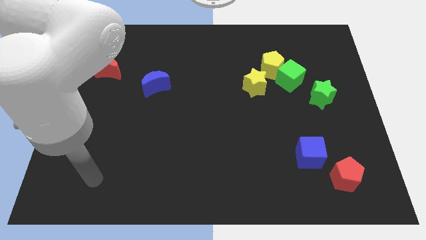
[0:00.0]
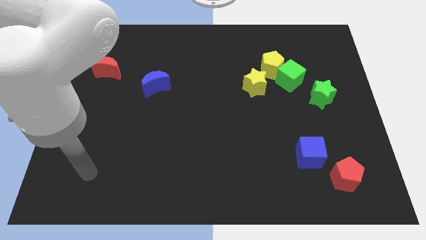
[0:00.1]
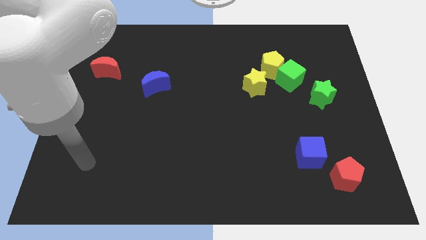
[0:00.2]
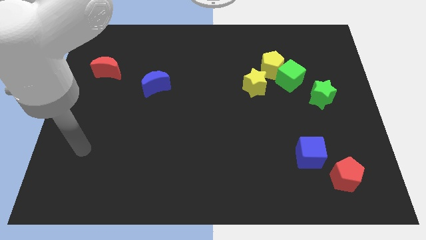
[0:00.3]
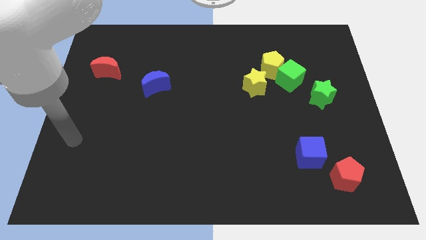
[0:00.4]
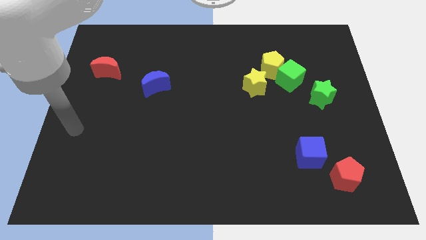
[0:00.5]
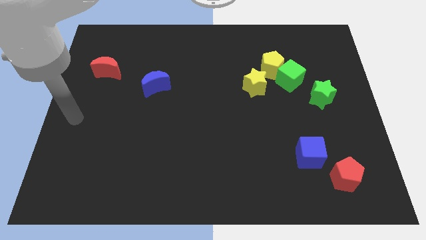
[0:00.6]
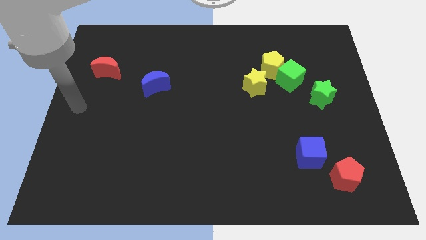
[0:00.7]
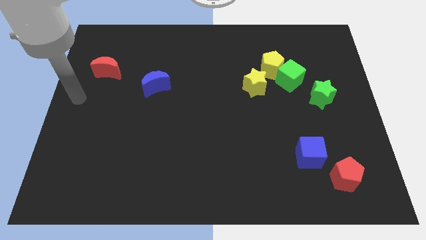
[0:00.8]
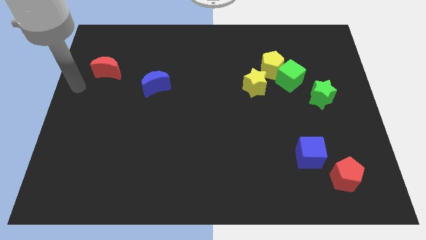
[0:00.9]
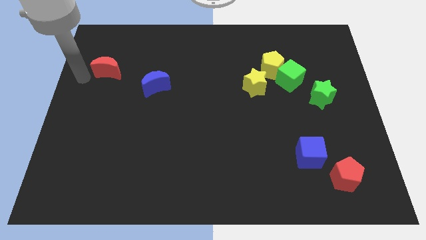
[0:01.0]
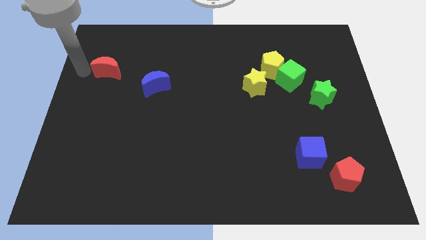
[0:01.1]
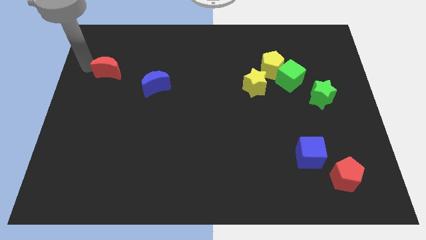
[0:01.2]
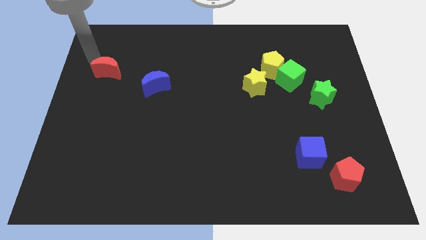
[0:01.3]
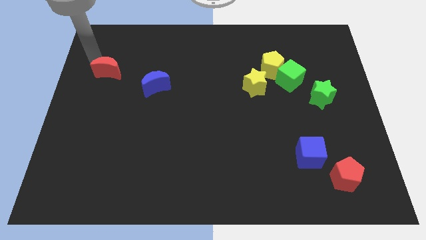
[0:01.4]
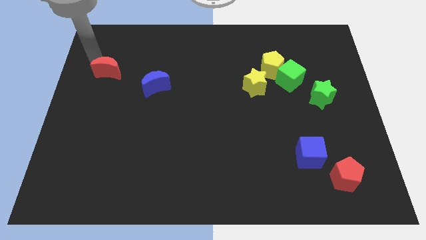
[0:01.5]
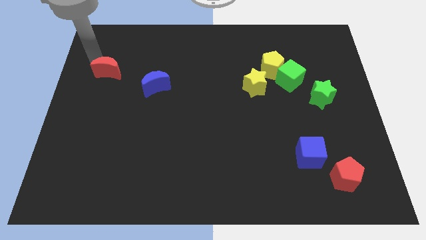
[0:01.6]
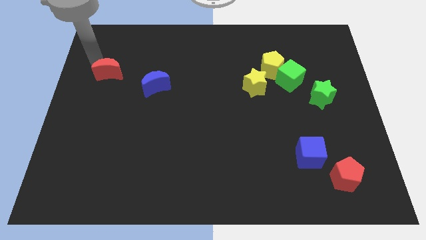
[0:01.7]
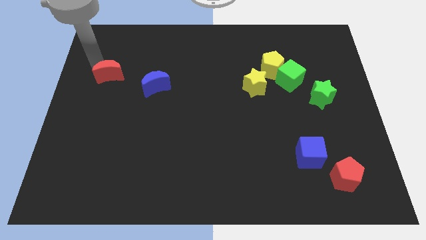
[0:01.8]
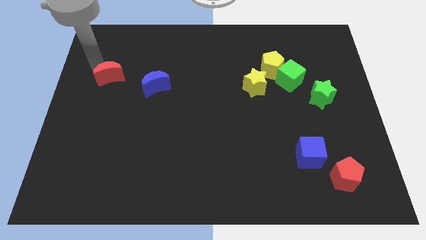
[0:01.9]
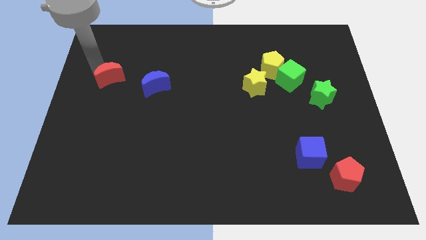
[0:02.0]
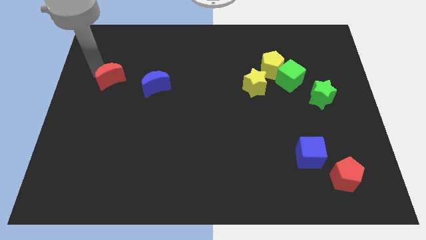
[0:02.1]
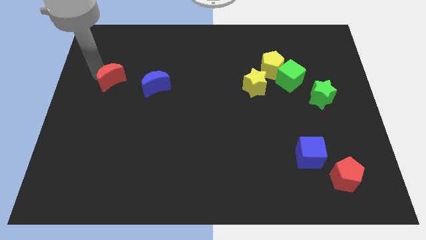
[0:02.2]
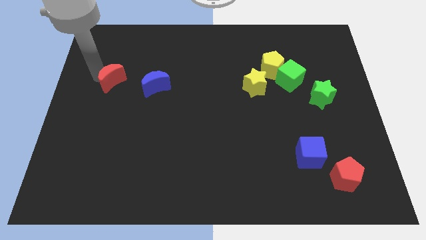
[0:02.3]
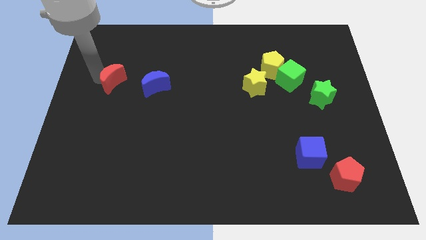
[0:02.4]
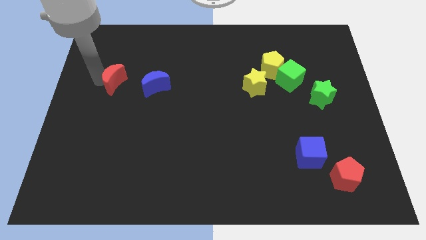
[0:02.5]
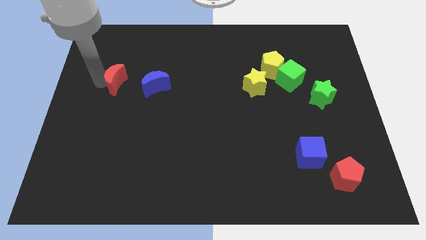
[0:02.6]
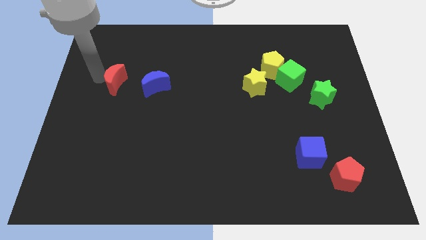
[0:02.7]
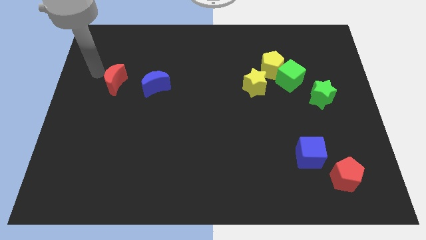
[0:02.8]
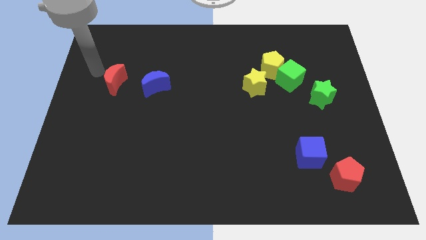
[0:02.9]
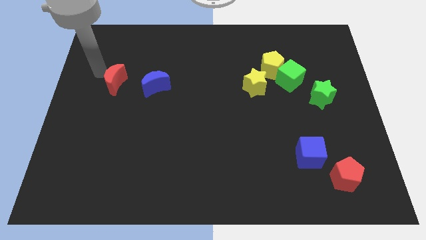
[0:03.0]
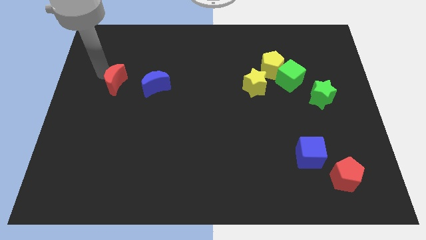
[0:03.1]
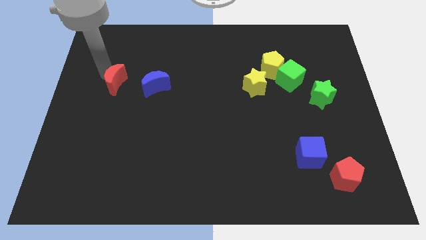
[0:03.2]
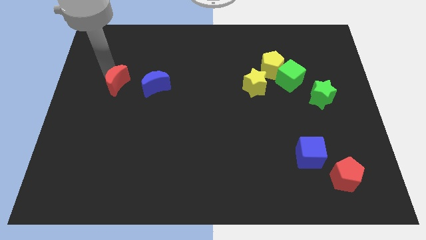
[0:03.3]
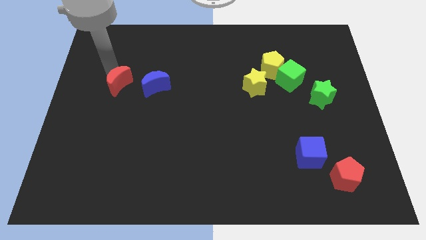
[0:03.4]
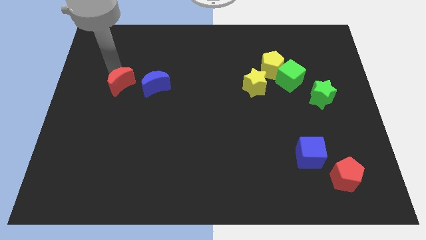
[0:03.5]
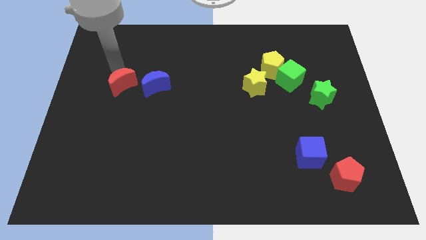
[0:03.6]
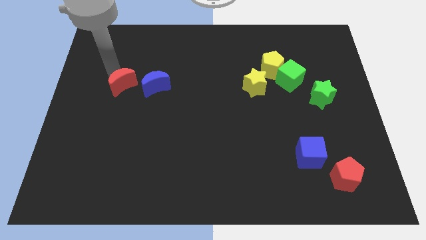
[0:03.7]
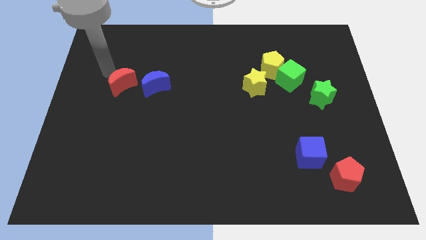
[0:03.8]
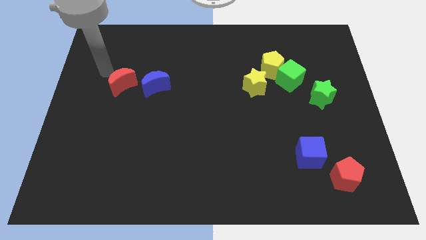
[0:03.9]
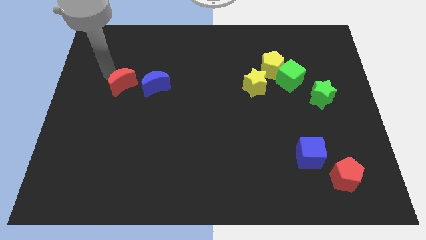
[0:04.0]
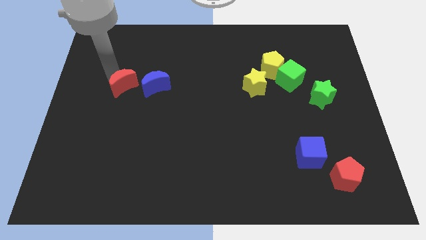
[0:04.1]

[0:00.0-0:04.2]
slightly push the red moon down and then right

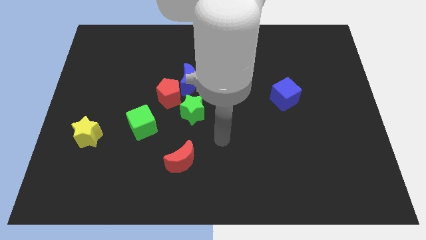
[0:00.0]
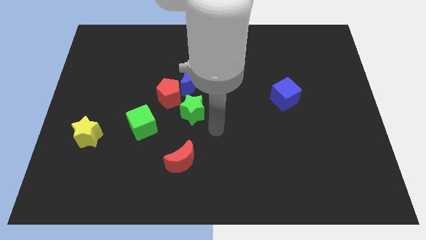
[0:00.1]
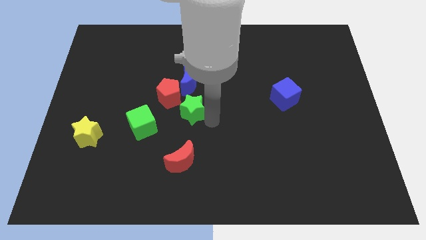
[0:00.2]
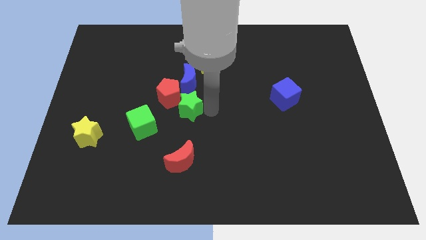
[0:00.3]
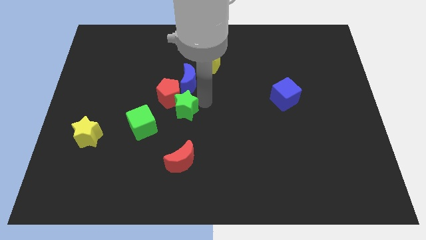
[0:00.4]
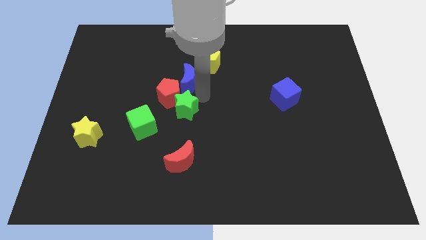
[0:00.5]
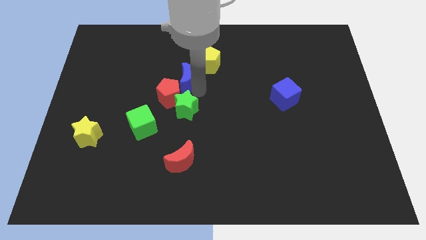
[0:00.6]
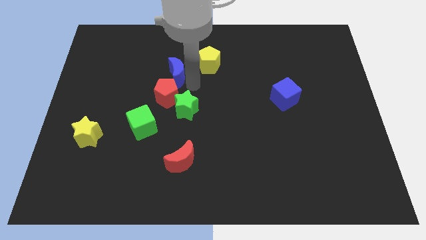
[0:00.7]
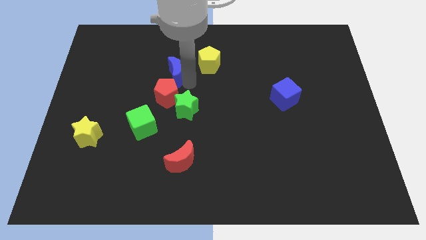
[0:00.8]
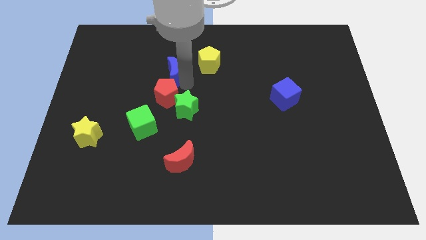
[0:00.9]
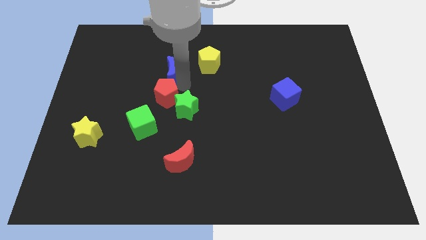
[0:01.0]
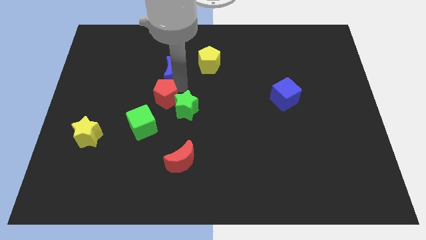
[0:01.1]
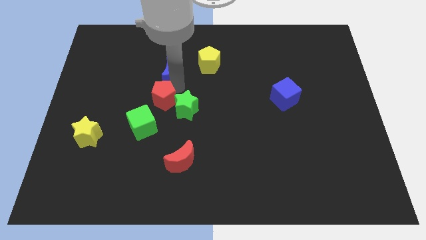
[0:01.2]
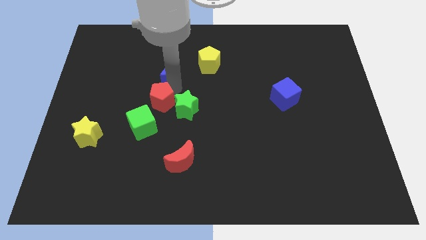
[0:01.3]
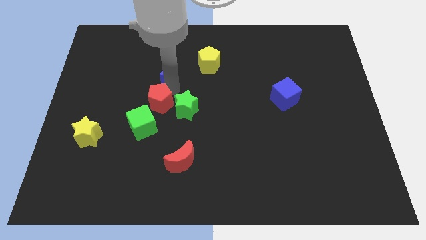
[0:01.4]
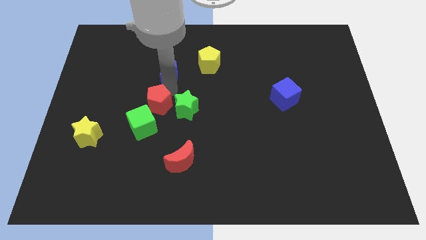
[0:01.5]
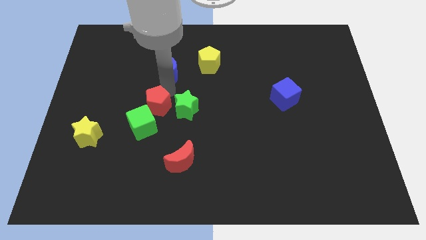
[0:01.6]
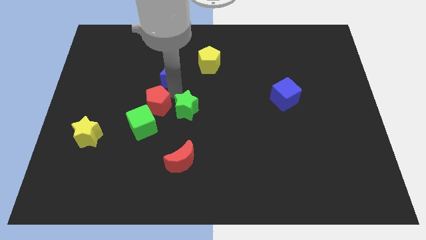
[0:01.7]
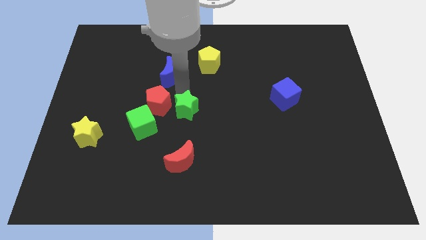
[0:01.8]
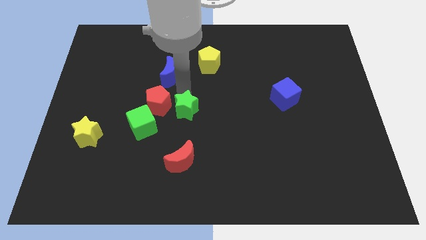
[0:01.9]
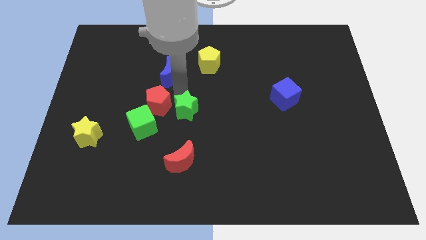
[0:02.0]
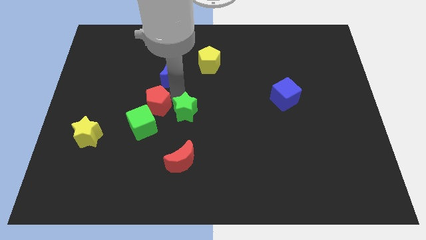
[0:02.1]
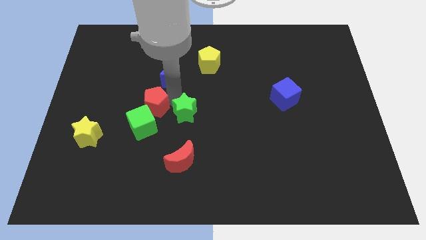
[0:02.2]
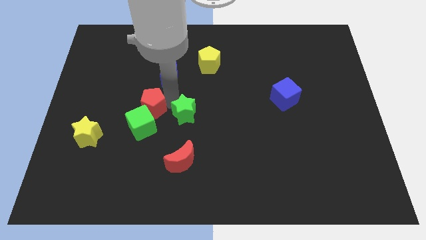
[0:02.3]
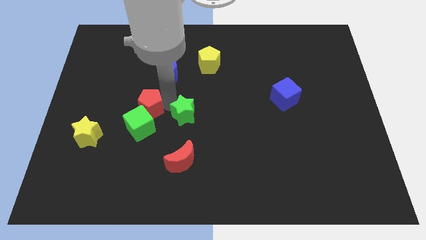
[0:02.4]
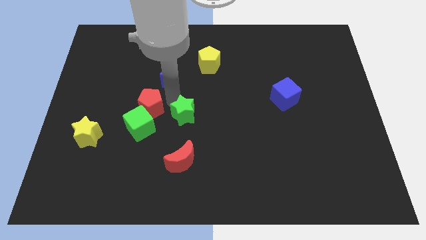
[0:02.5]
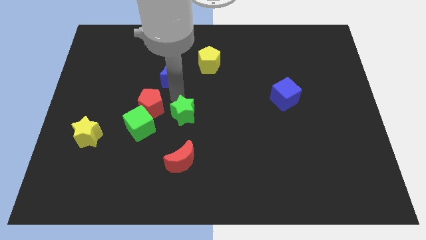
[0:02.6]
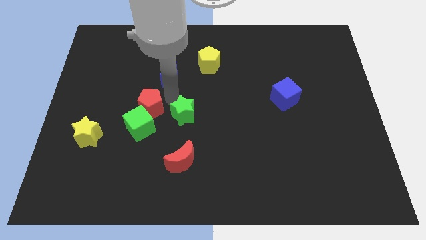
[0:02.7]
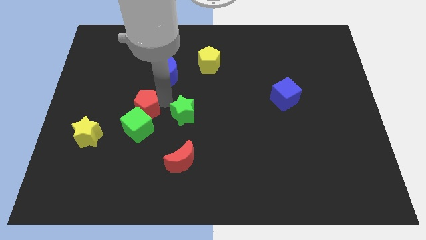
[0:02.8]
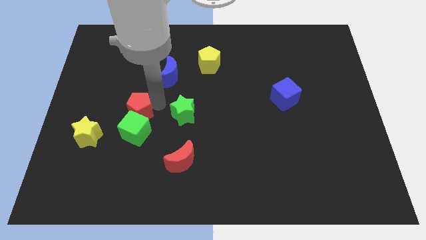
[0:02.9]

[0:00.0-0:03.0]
push the red pentagon somewhat diagonally downwards and left

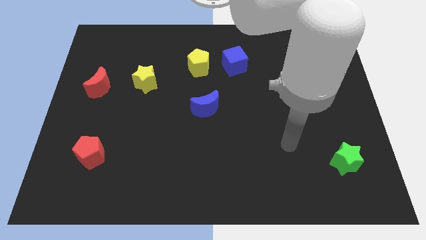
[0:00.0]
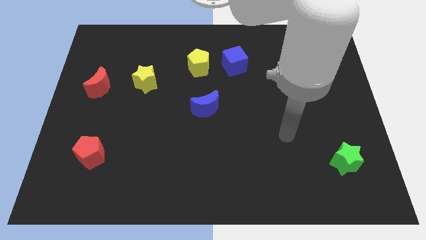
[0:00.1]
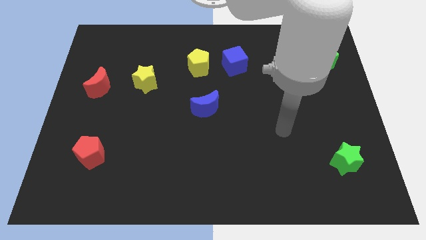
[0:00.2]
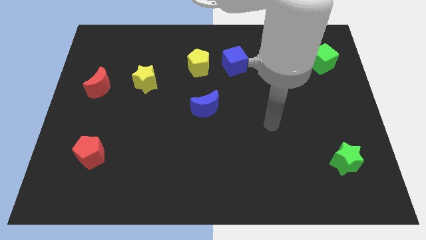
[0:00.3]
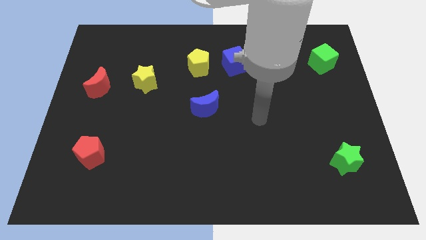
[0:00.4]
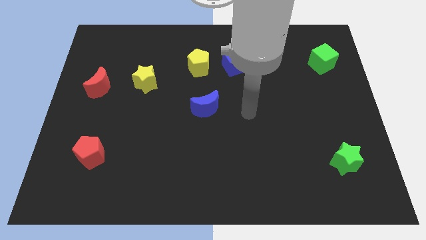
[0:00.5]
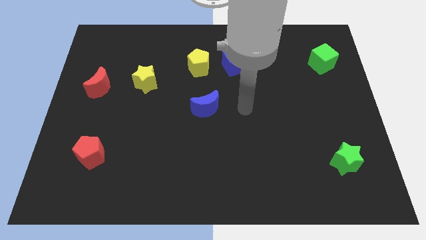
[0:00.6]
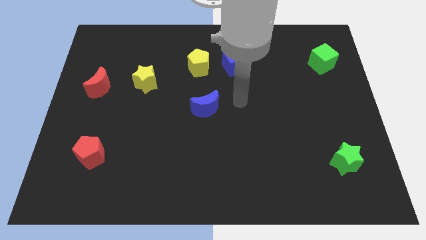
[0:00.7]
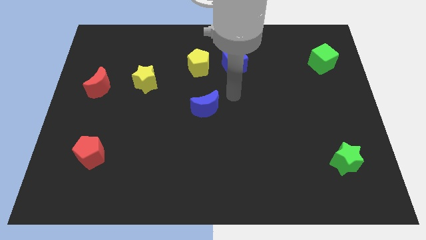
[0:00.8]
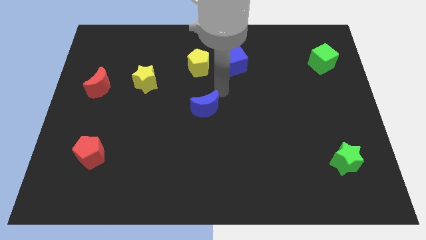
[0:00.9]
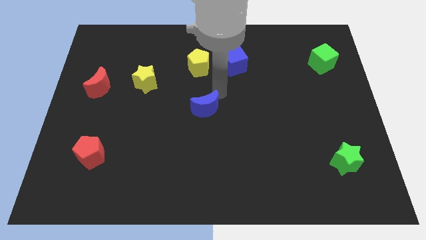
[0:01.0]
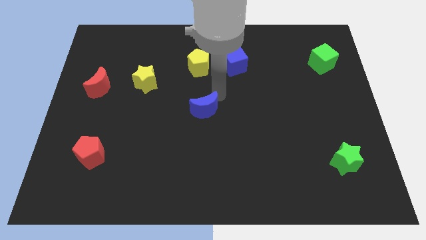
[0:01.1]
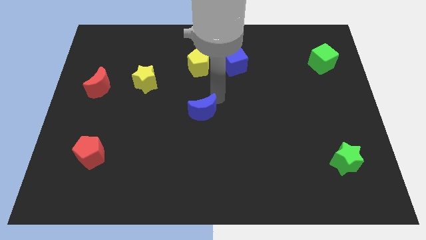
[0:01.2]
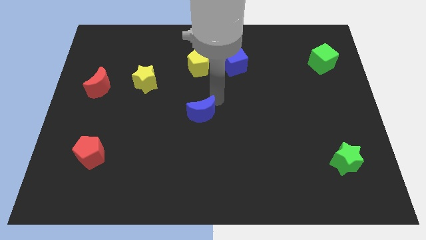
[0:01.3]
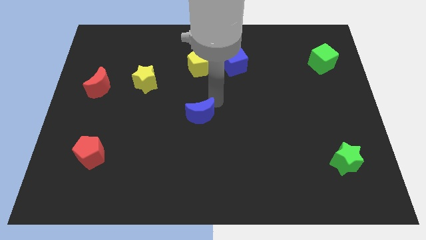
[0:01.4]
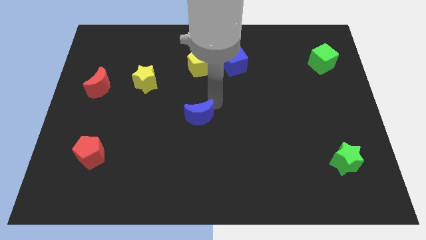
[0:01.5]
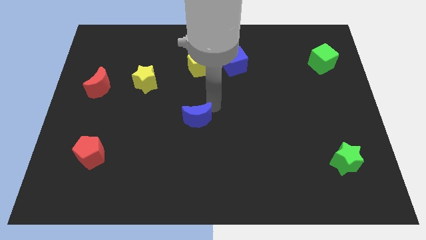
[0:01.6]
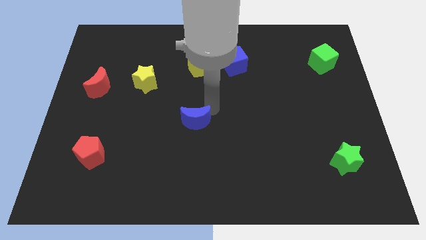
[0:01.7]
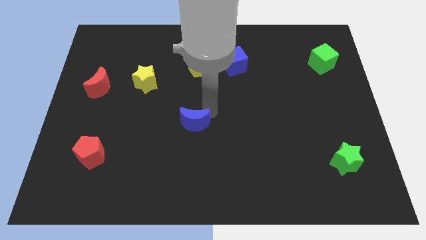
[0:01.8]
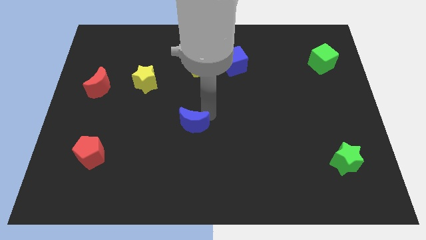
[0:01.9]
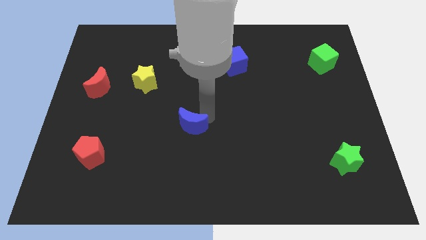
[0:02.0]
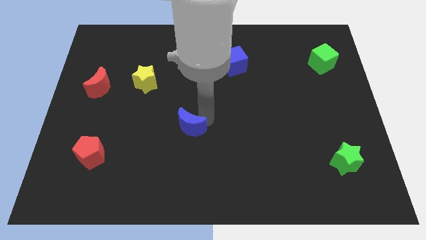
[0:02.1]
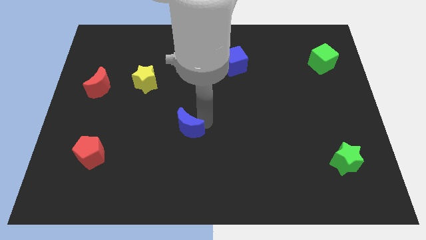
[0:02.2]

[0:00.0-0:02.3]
slightly slide the blue moon diagonally down and to the left
